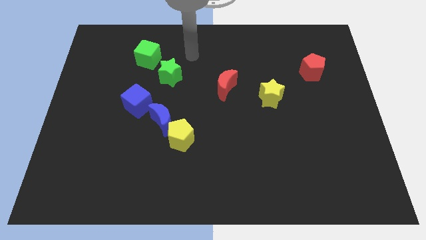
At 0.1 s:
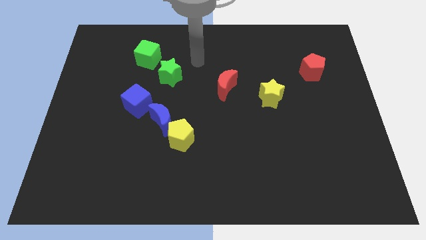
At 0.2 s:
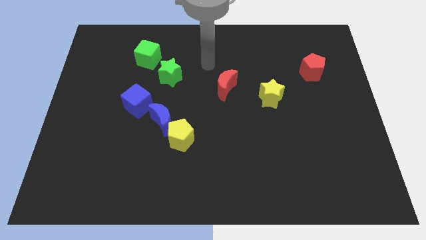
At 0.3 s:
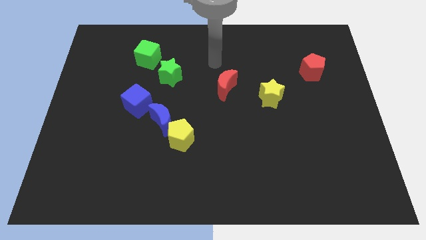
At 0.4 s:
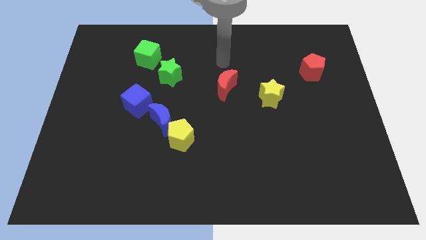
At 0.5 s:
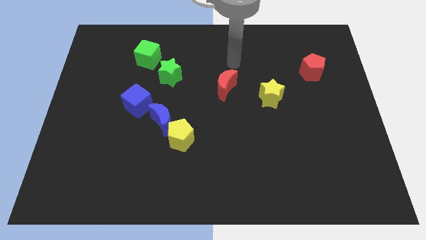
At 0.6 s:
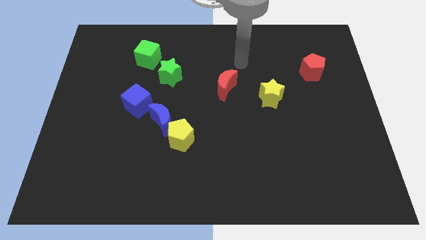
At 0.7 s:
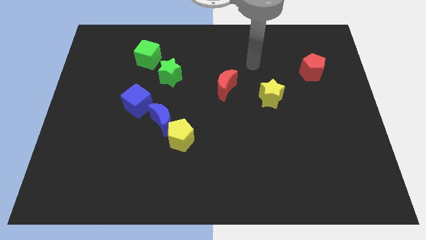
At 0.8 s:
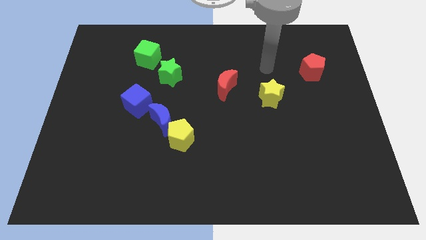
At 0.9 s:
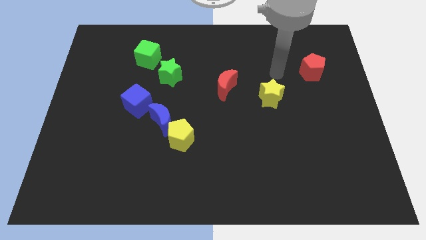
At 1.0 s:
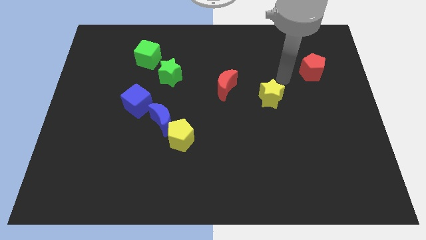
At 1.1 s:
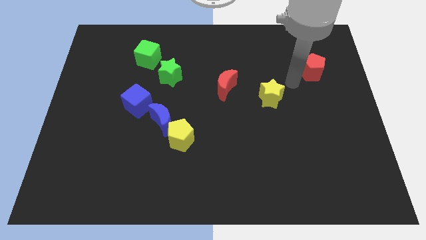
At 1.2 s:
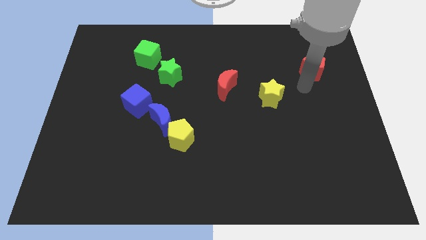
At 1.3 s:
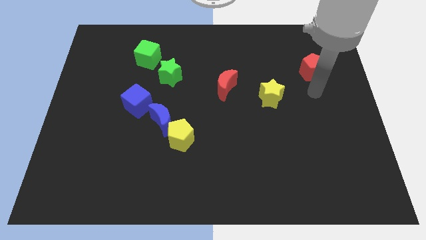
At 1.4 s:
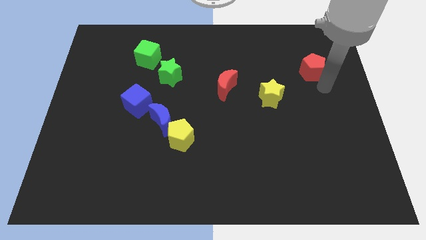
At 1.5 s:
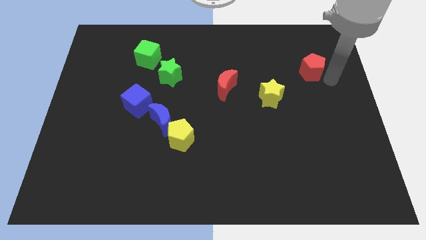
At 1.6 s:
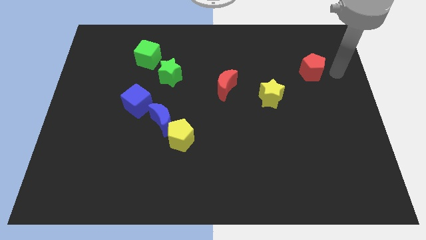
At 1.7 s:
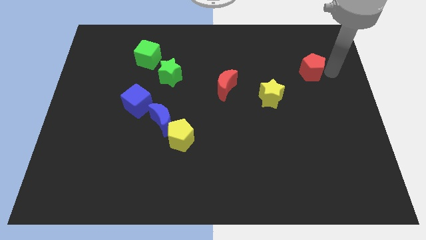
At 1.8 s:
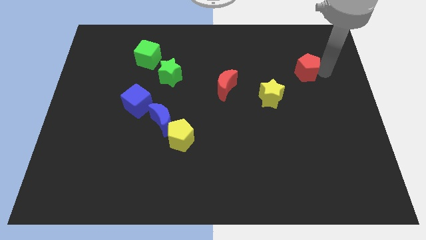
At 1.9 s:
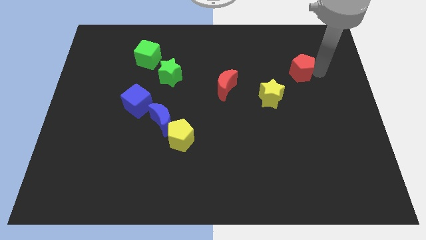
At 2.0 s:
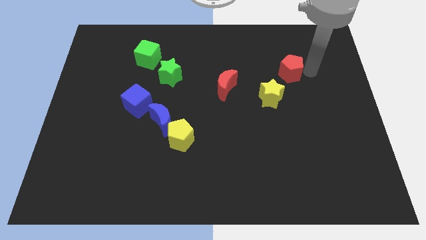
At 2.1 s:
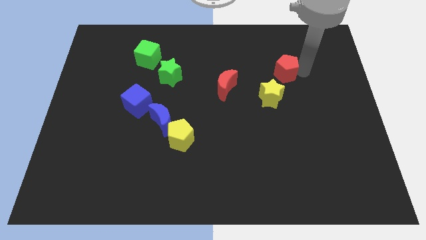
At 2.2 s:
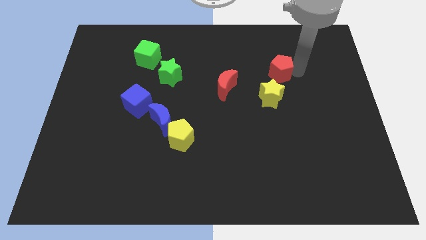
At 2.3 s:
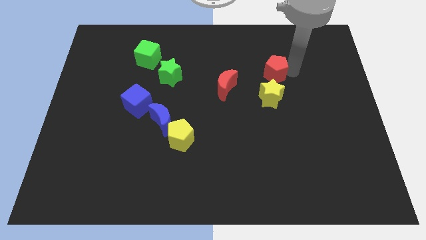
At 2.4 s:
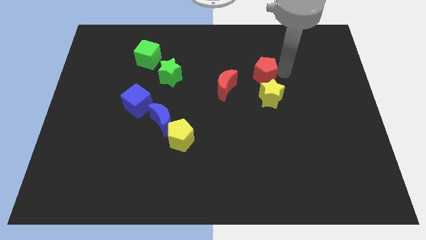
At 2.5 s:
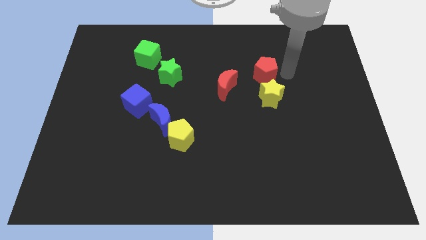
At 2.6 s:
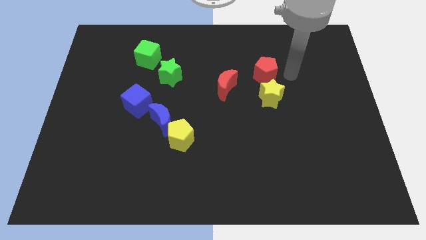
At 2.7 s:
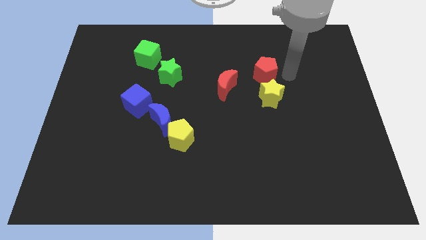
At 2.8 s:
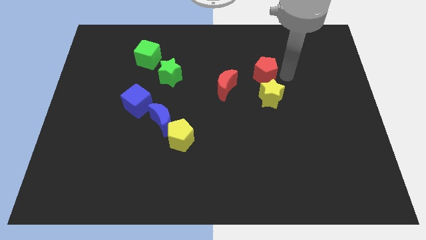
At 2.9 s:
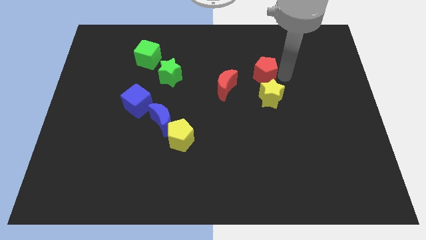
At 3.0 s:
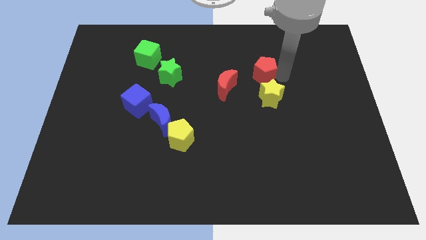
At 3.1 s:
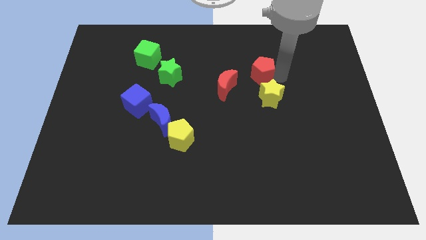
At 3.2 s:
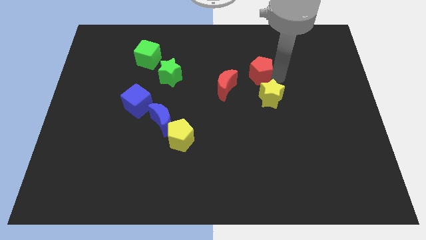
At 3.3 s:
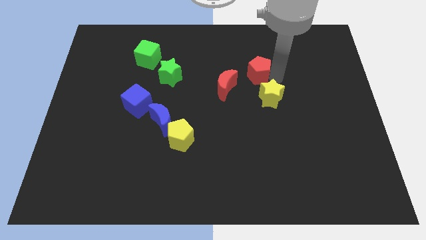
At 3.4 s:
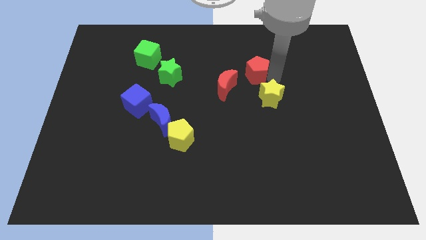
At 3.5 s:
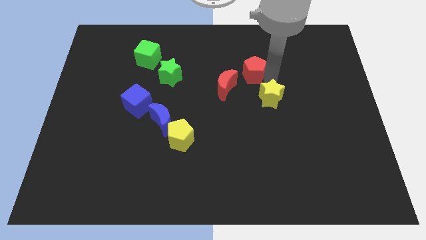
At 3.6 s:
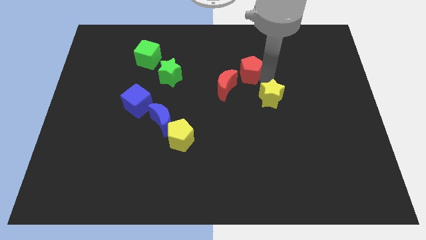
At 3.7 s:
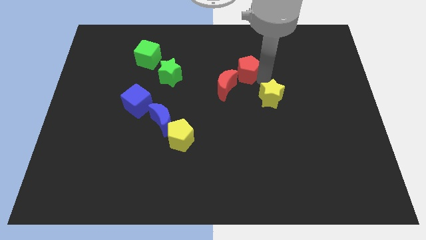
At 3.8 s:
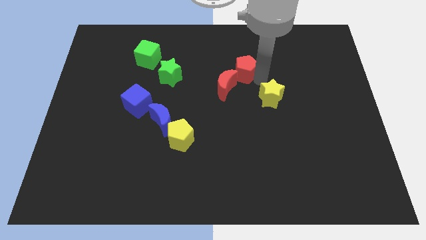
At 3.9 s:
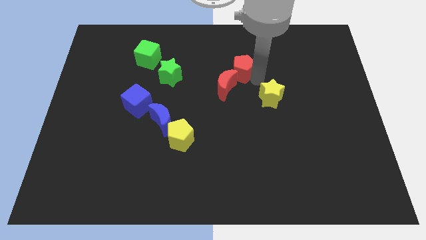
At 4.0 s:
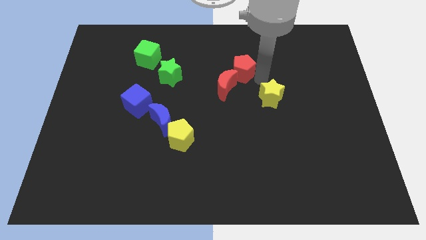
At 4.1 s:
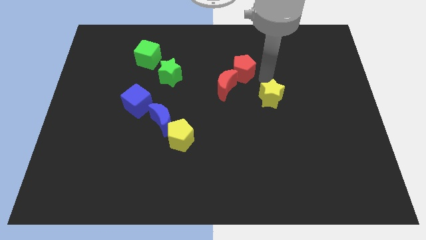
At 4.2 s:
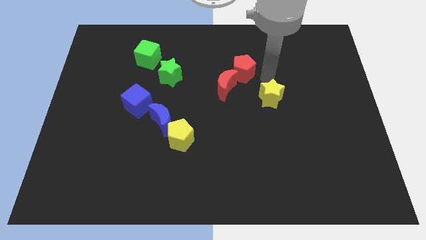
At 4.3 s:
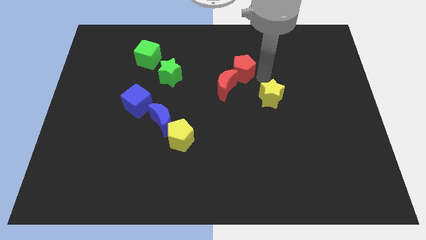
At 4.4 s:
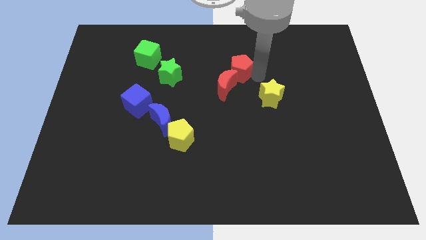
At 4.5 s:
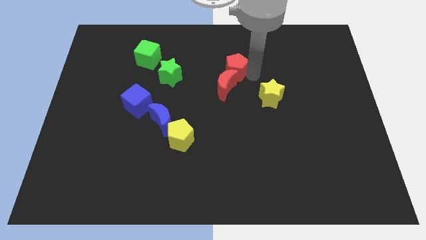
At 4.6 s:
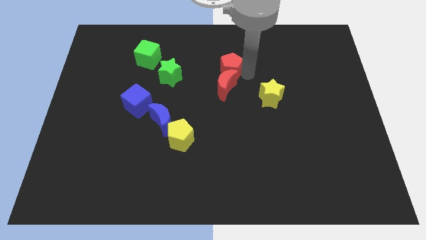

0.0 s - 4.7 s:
push the red pentagon left

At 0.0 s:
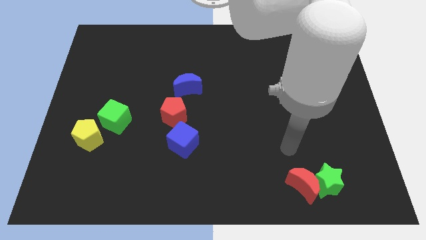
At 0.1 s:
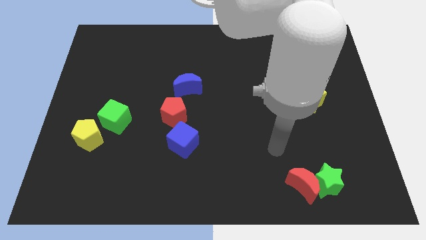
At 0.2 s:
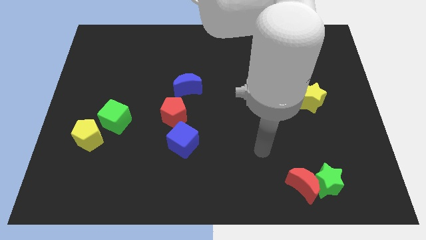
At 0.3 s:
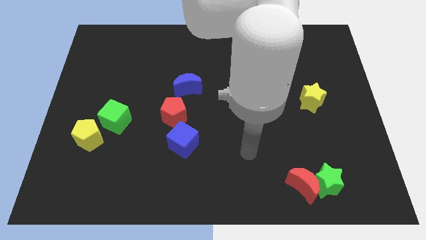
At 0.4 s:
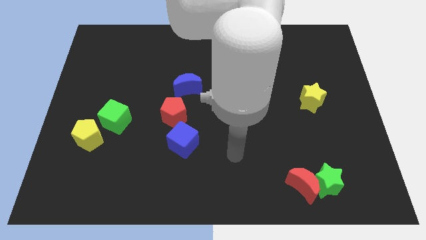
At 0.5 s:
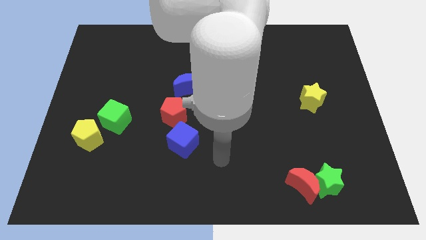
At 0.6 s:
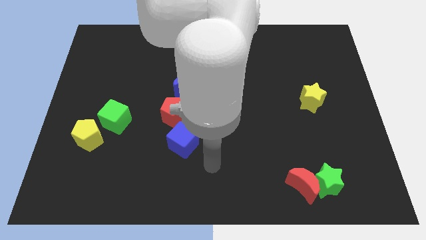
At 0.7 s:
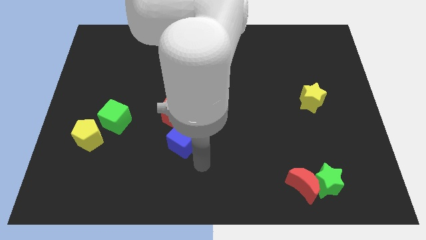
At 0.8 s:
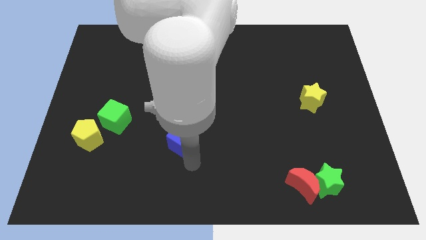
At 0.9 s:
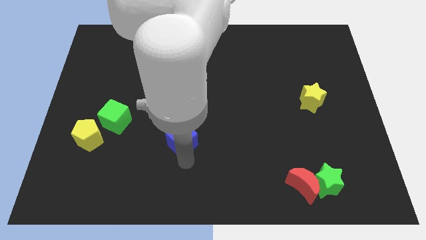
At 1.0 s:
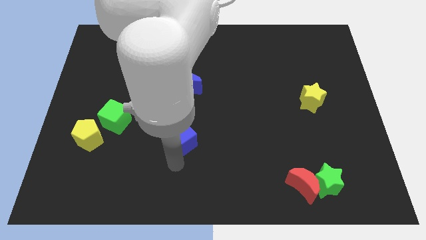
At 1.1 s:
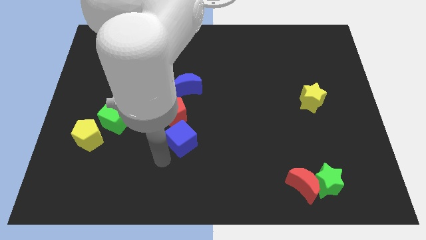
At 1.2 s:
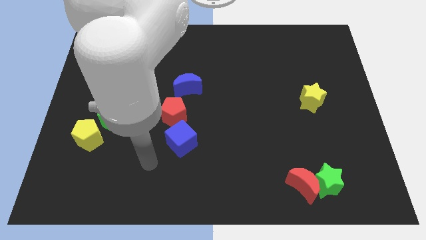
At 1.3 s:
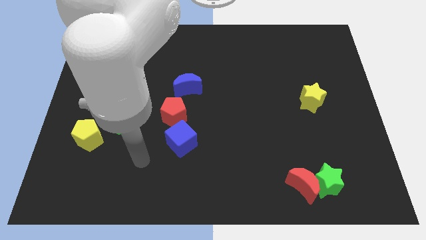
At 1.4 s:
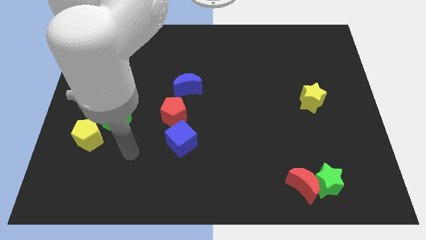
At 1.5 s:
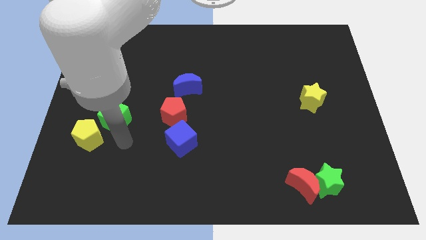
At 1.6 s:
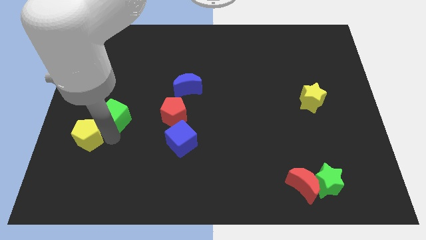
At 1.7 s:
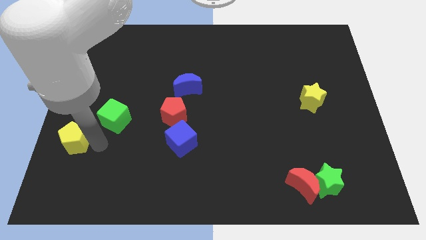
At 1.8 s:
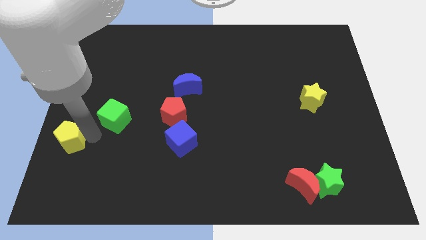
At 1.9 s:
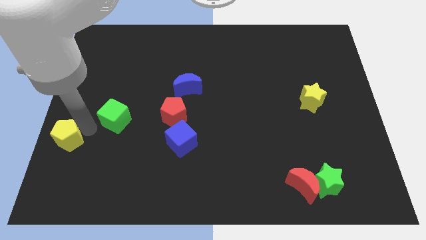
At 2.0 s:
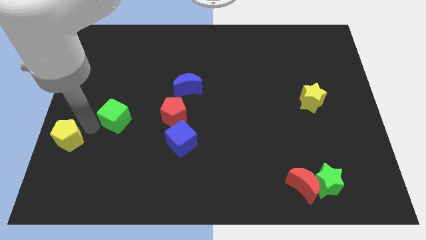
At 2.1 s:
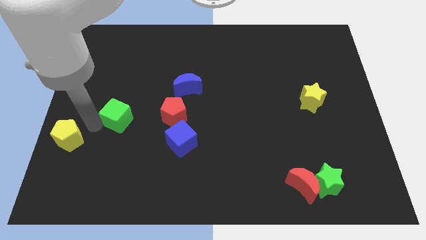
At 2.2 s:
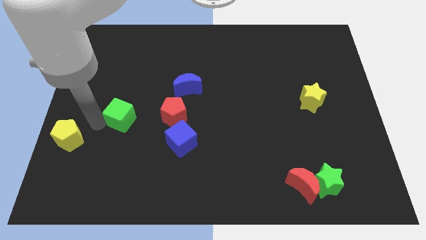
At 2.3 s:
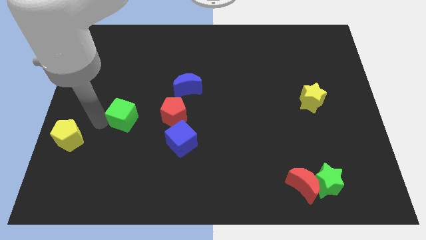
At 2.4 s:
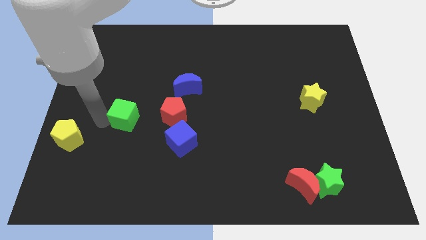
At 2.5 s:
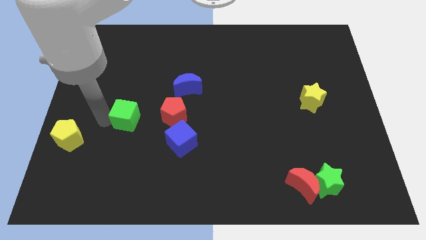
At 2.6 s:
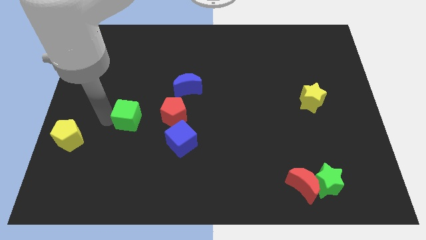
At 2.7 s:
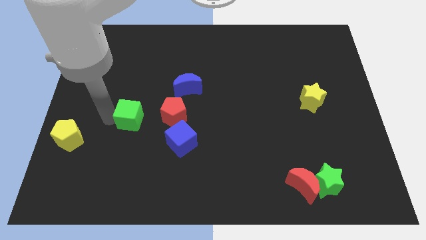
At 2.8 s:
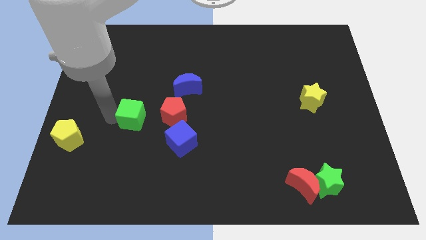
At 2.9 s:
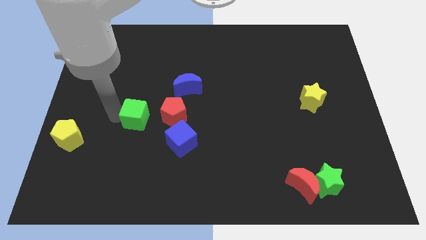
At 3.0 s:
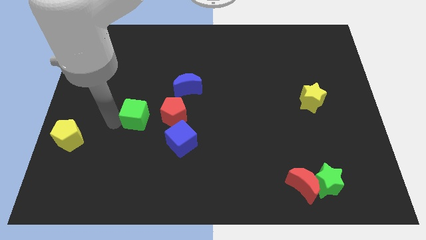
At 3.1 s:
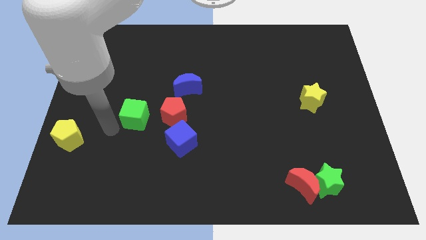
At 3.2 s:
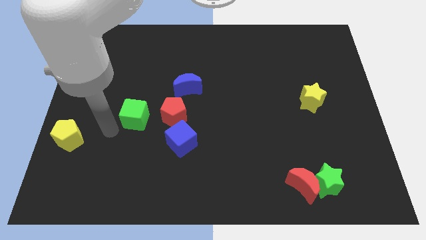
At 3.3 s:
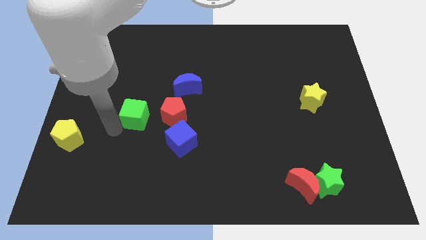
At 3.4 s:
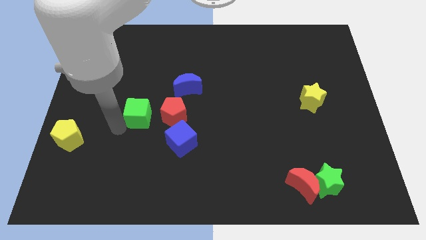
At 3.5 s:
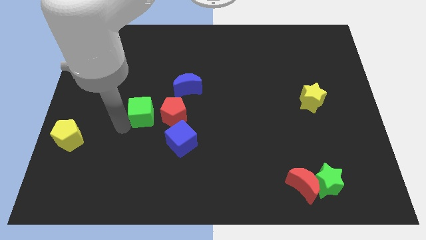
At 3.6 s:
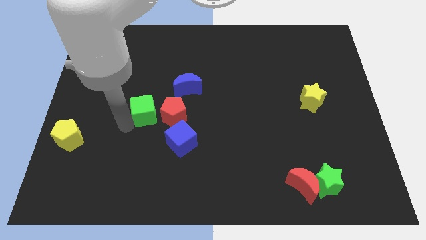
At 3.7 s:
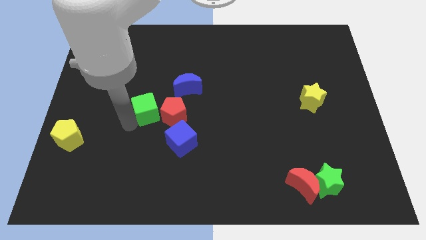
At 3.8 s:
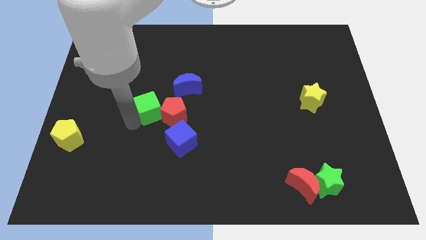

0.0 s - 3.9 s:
slightly push the green cube to the right
